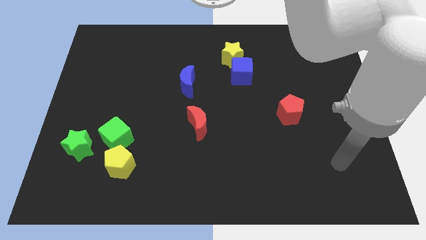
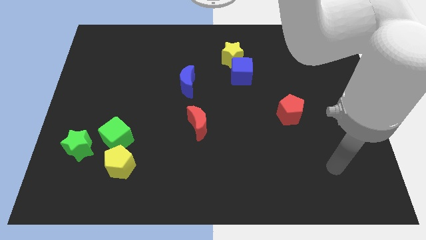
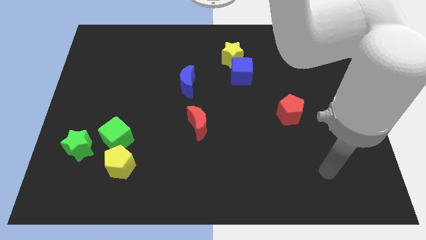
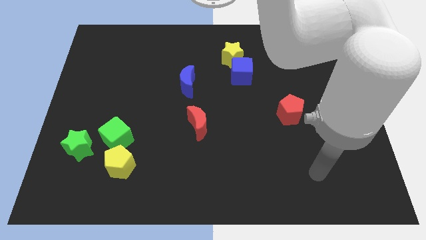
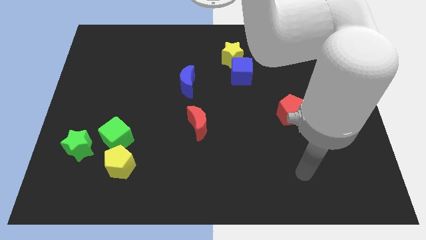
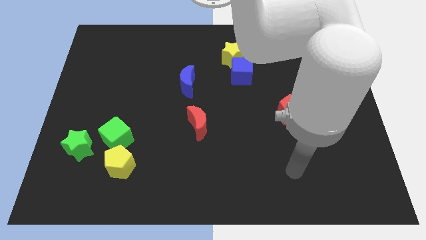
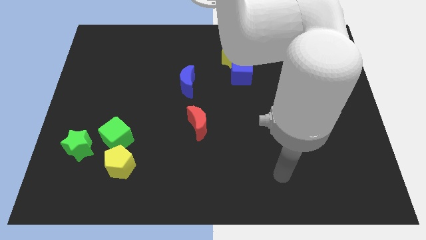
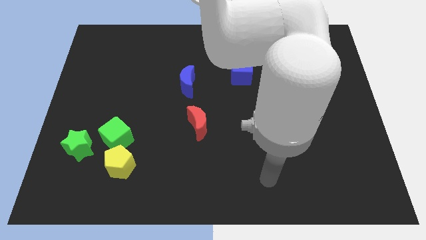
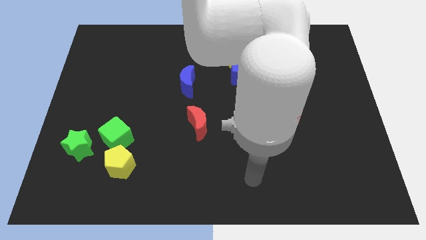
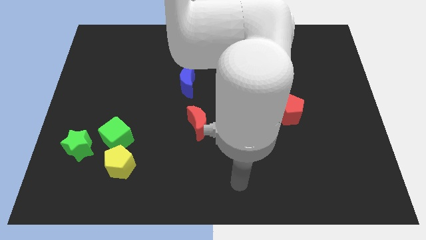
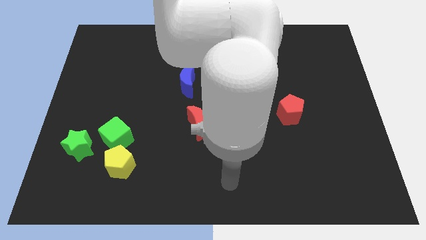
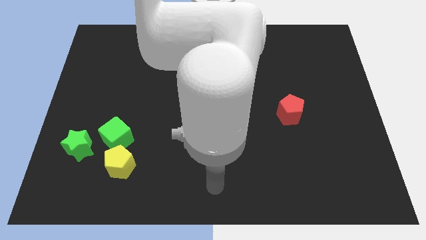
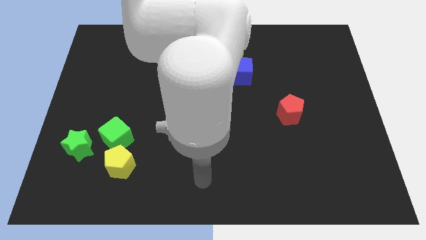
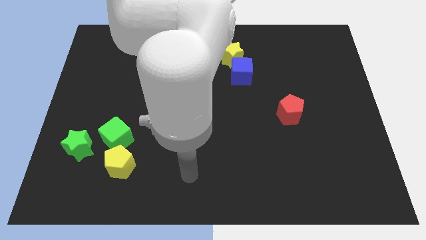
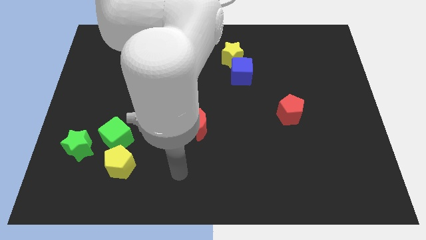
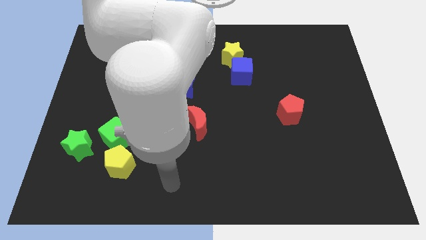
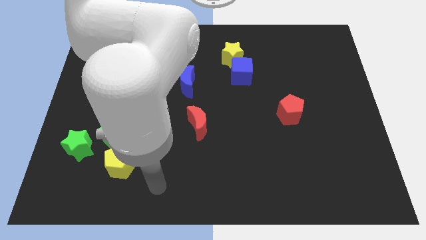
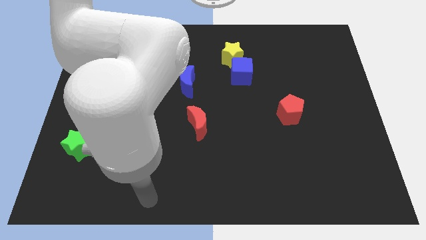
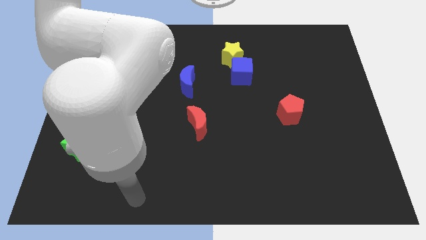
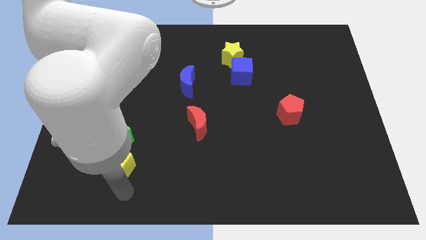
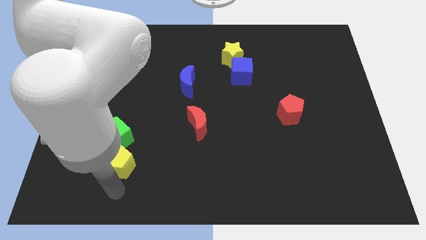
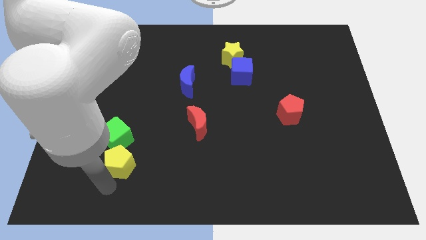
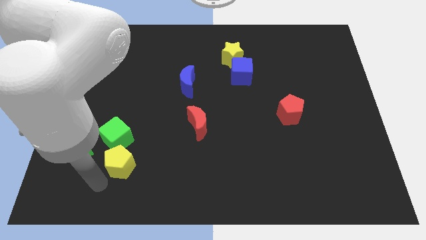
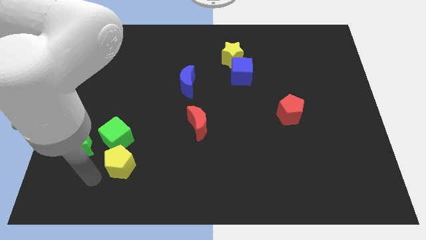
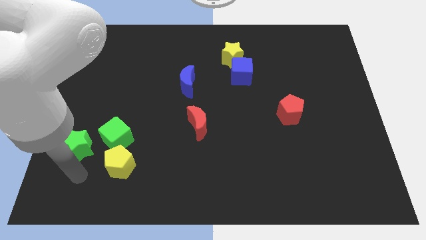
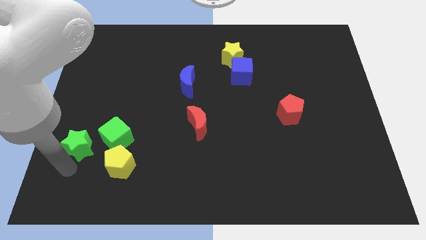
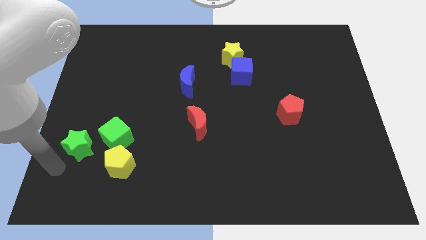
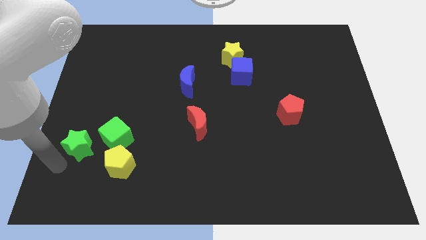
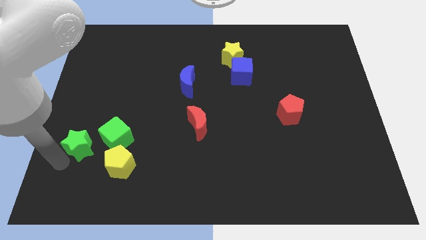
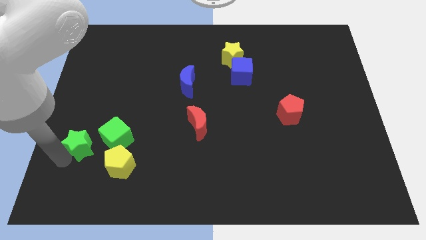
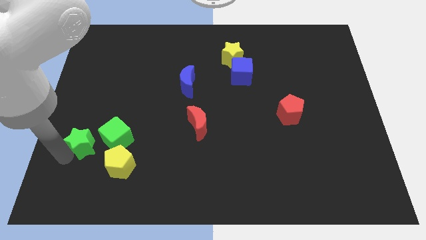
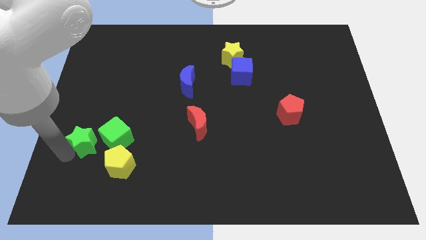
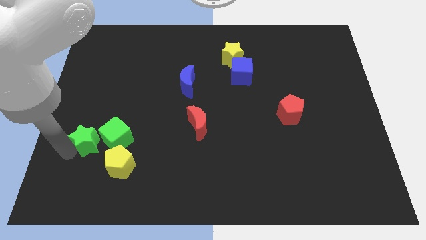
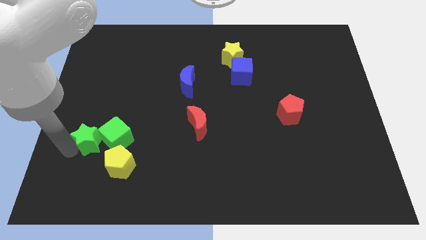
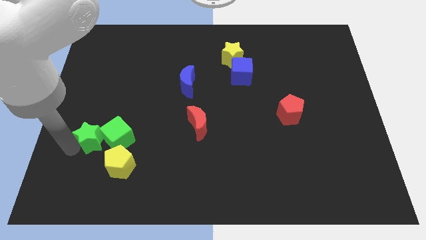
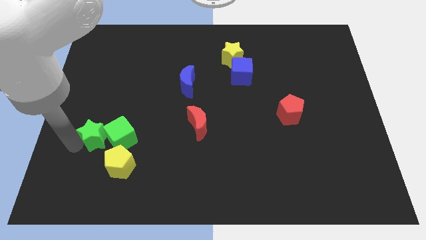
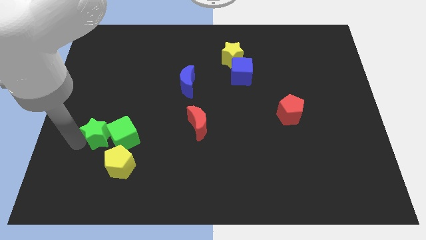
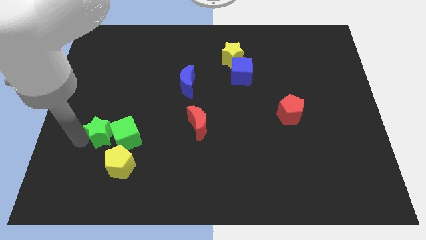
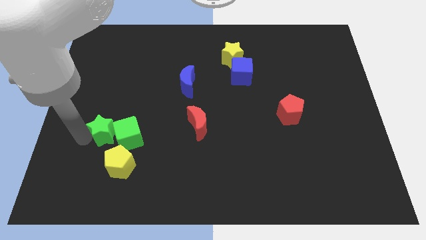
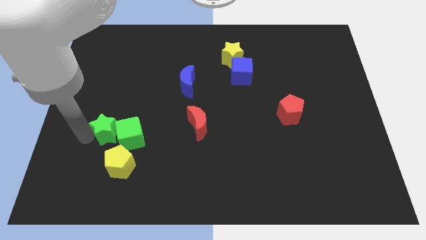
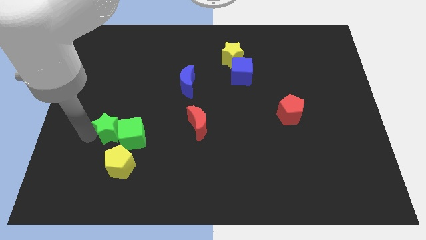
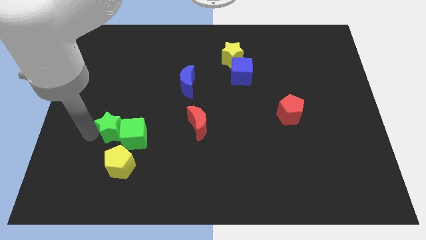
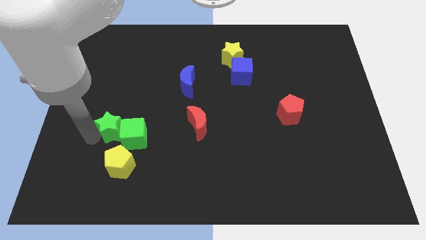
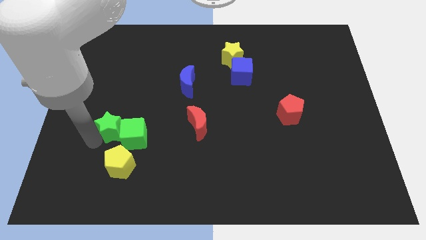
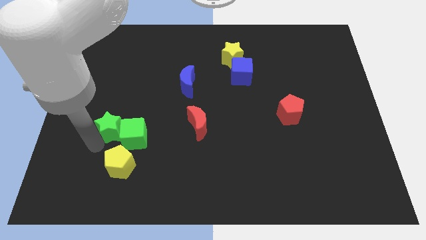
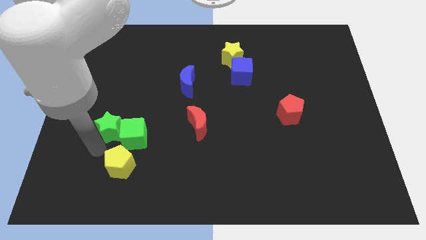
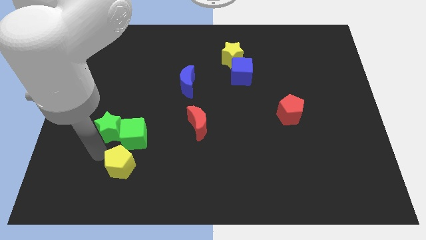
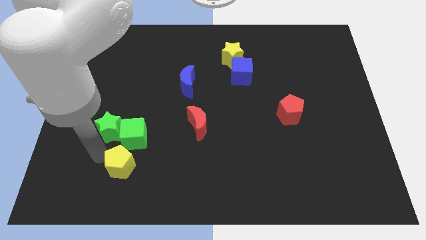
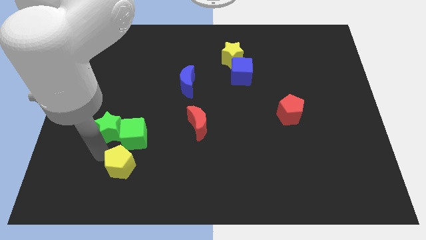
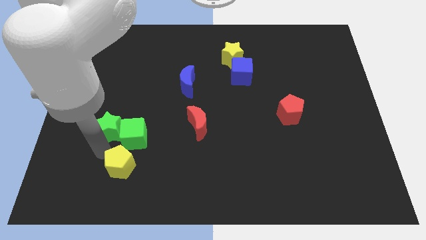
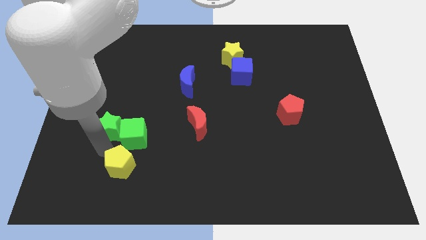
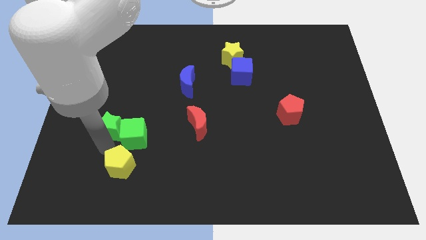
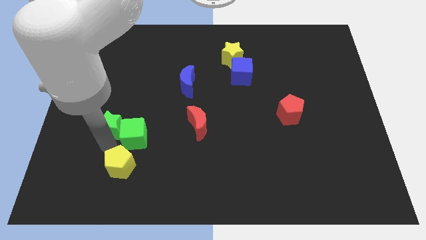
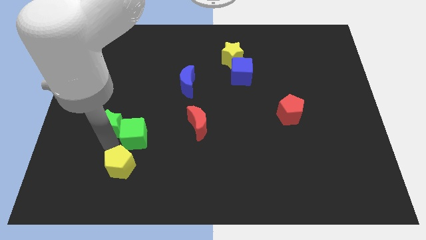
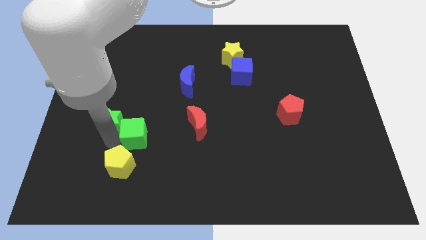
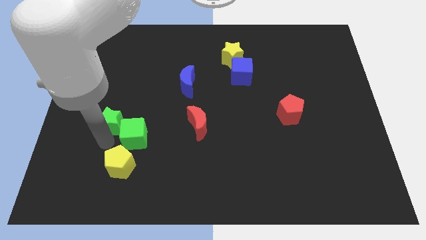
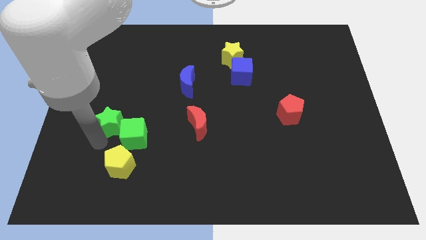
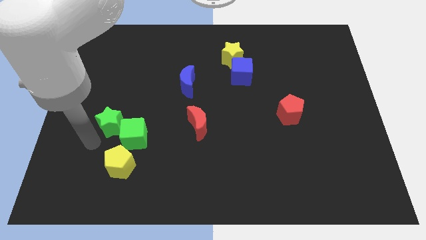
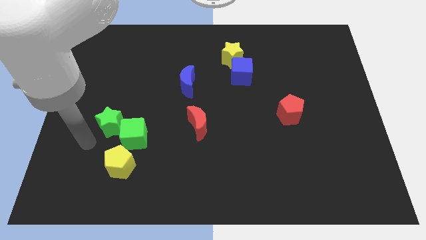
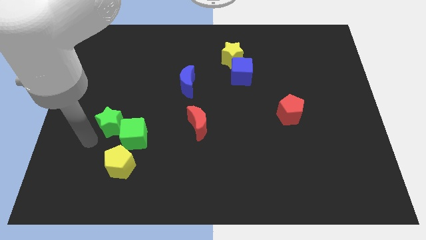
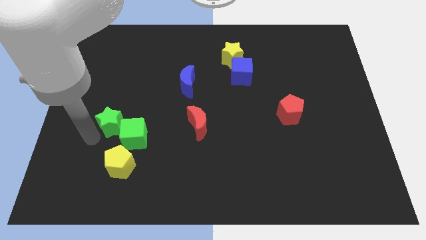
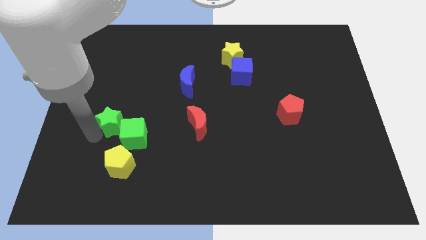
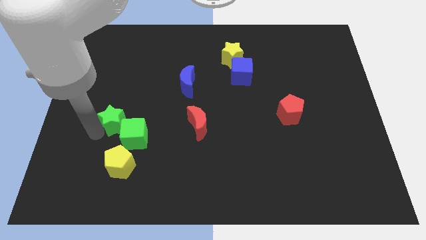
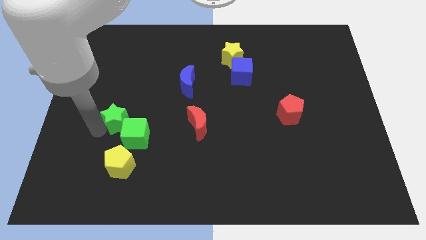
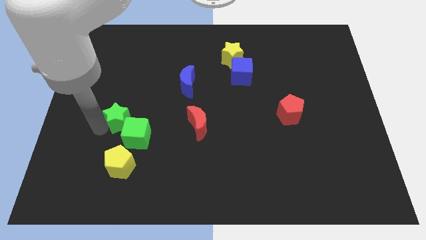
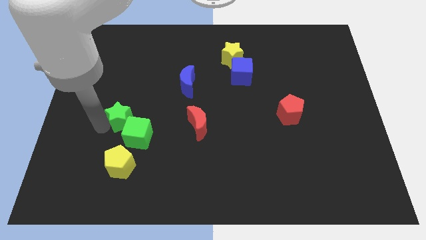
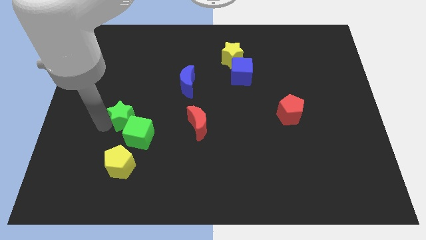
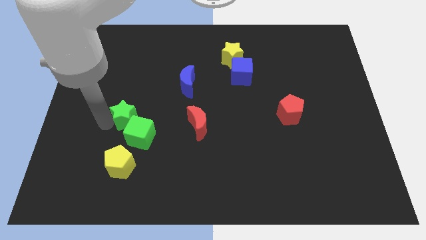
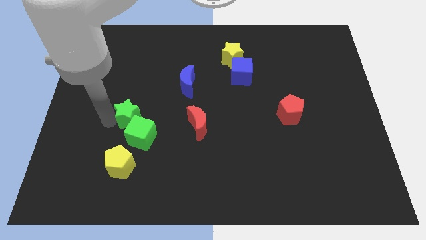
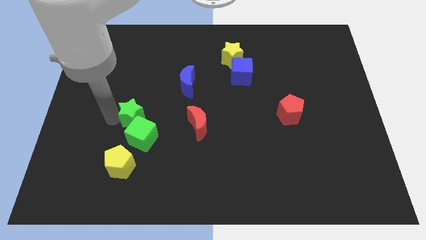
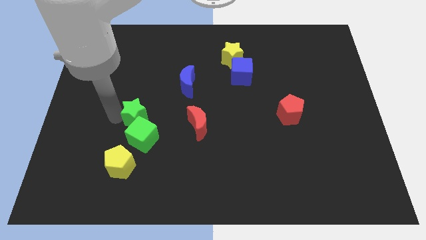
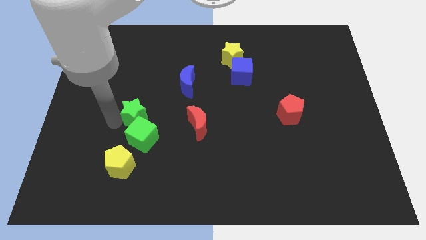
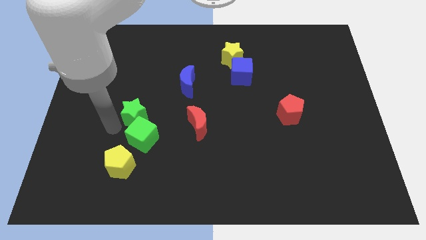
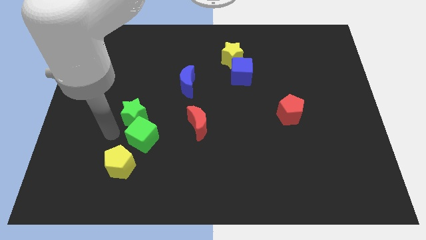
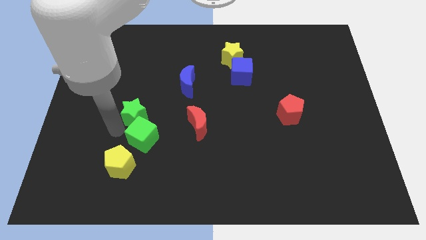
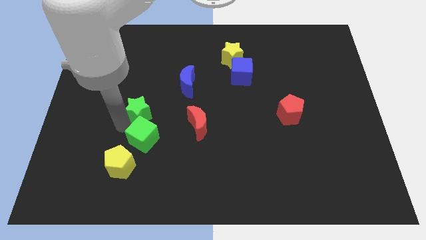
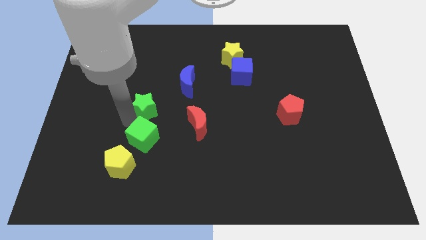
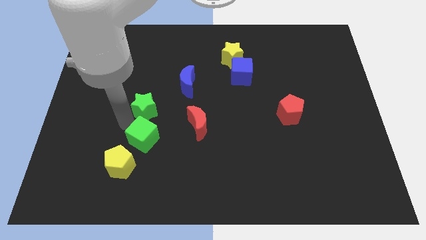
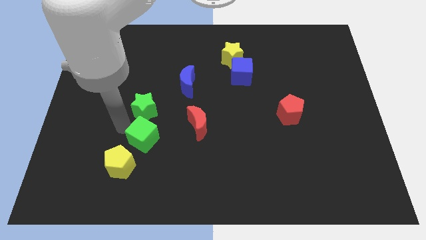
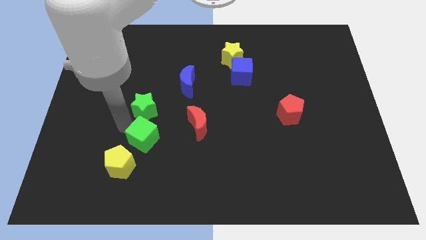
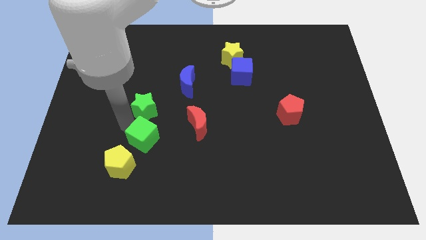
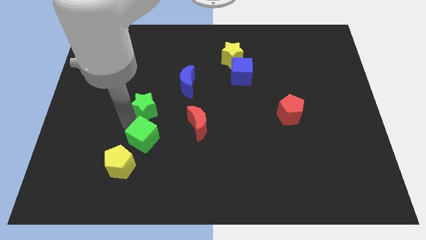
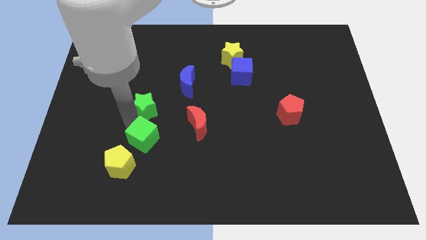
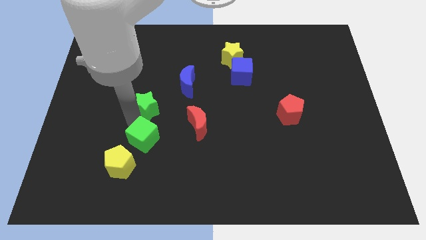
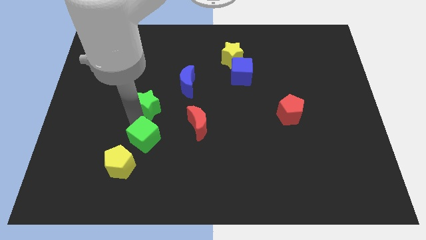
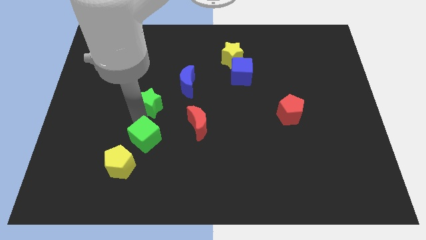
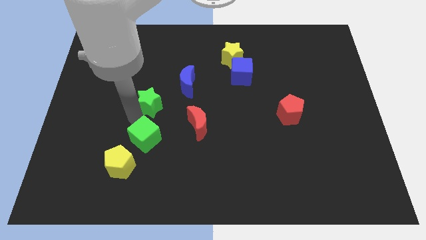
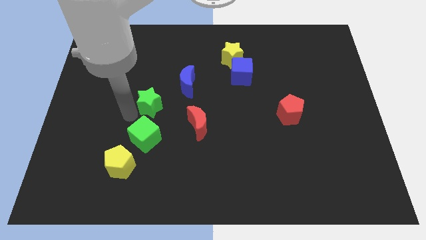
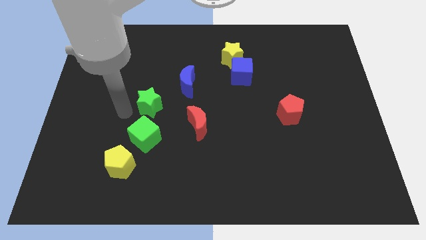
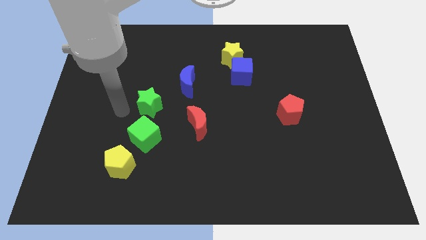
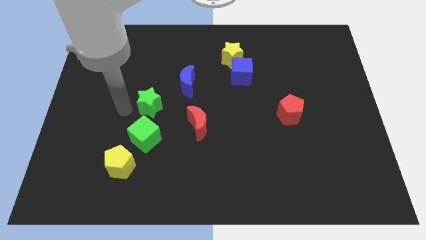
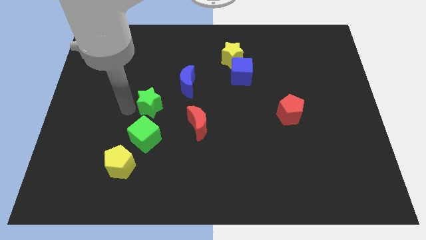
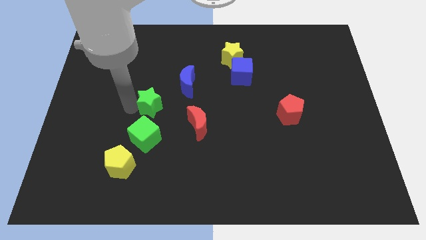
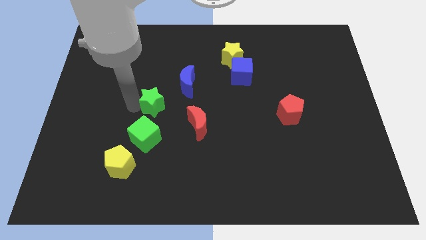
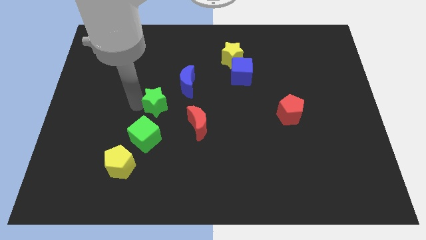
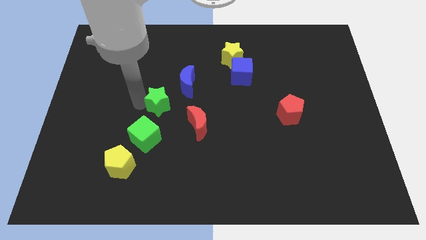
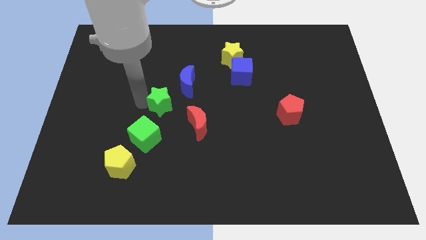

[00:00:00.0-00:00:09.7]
put the green star to the center of the board
